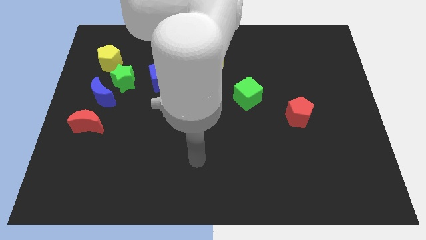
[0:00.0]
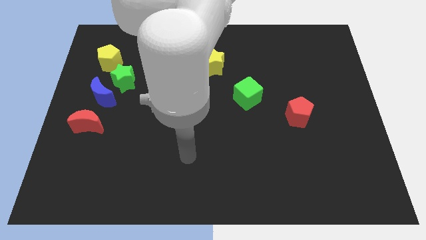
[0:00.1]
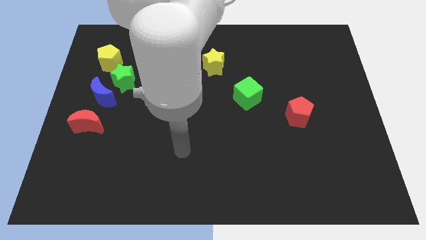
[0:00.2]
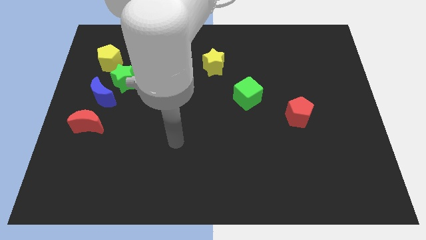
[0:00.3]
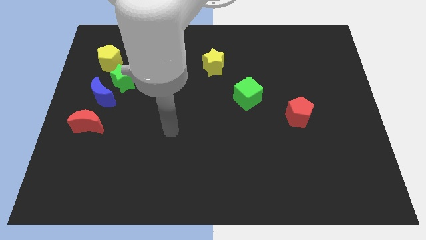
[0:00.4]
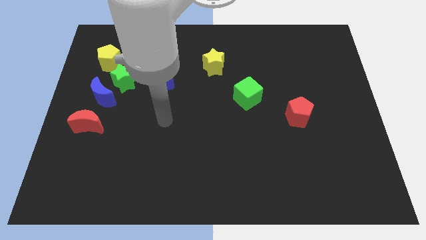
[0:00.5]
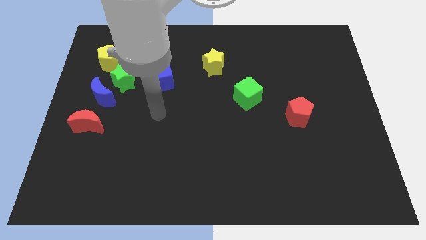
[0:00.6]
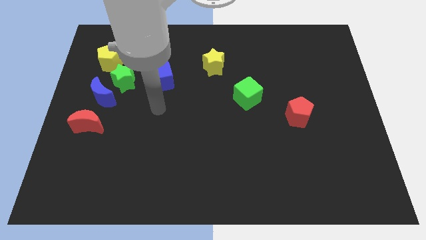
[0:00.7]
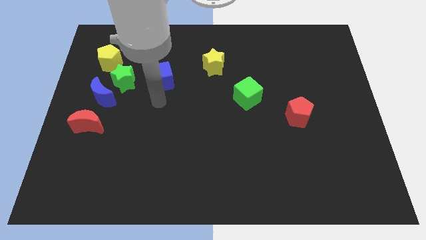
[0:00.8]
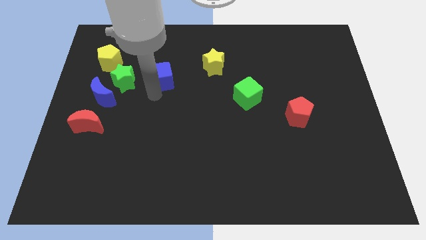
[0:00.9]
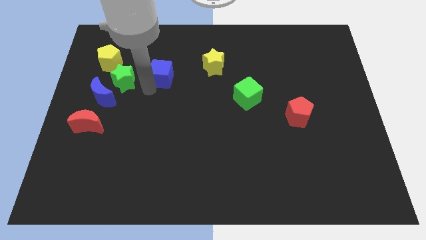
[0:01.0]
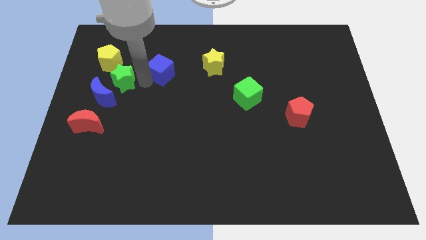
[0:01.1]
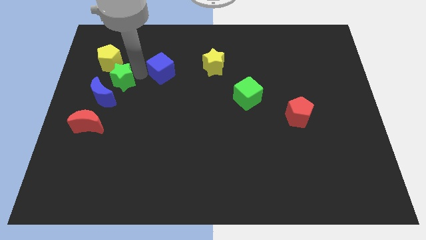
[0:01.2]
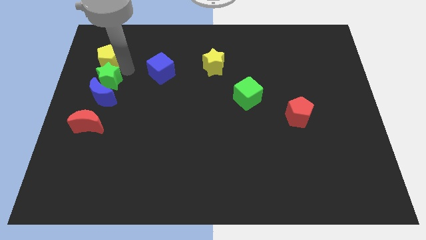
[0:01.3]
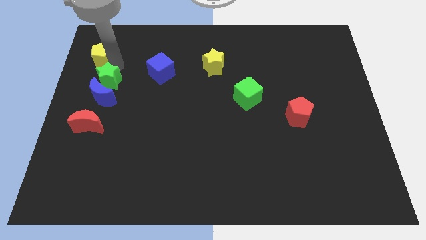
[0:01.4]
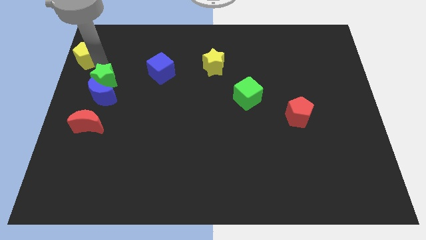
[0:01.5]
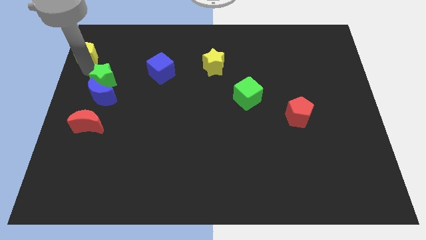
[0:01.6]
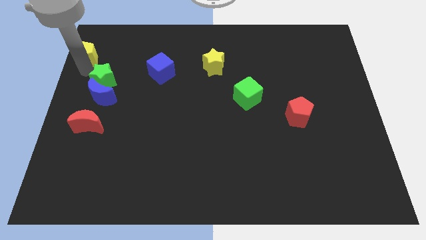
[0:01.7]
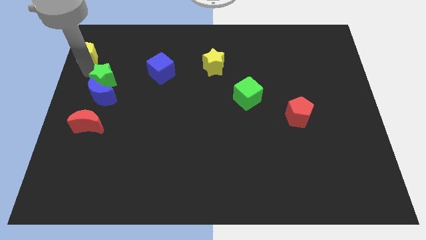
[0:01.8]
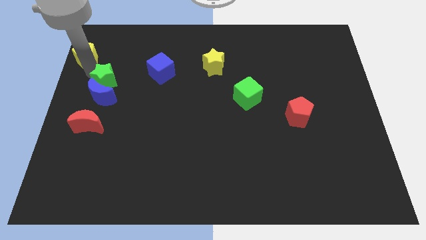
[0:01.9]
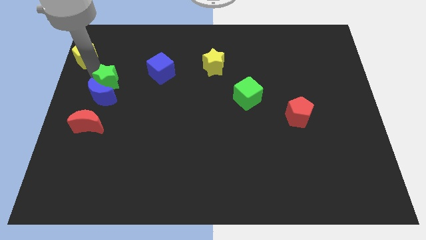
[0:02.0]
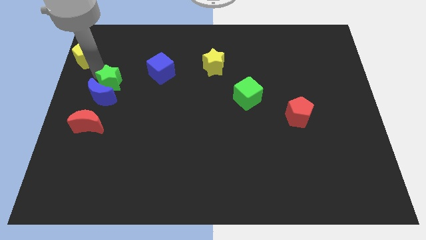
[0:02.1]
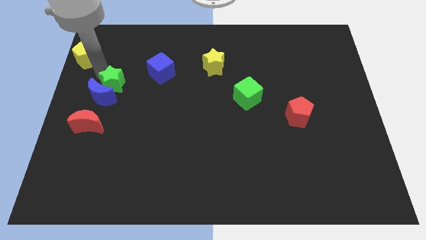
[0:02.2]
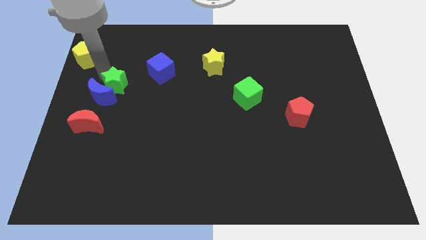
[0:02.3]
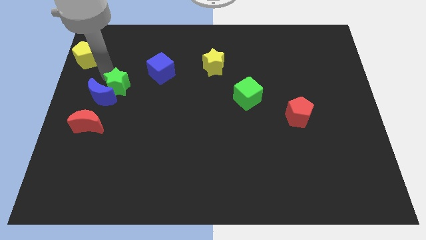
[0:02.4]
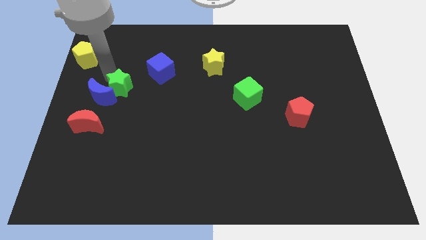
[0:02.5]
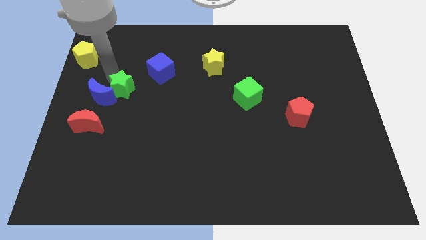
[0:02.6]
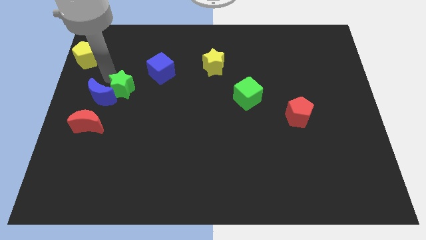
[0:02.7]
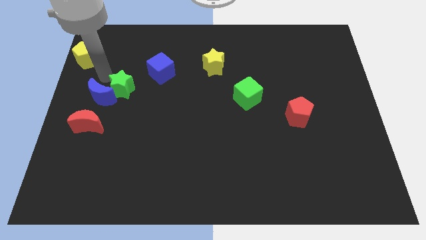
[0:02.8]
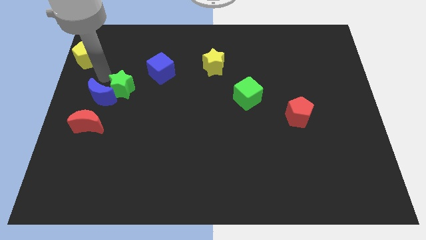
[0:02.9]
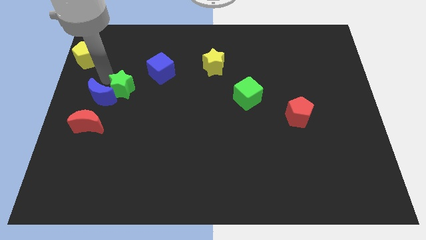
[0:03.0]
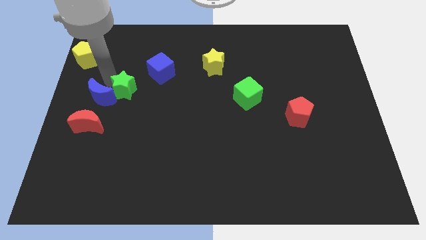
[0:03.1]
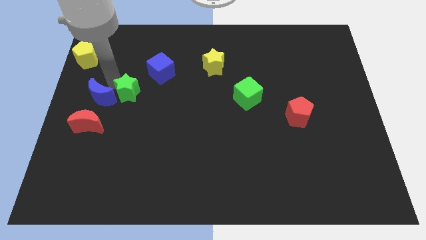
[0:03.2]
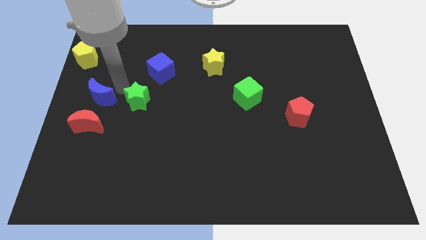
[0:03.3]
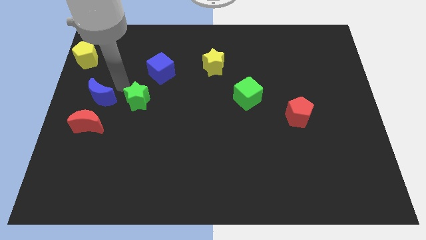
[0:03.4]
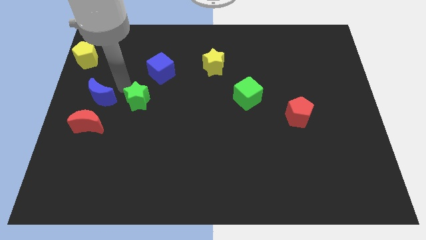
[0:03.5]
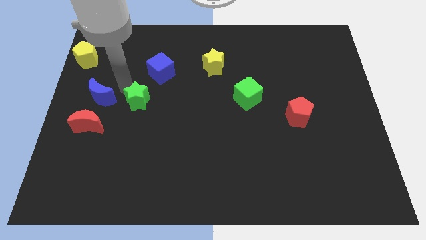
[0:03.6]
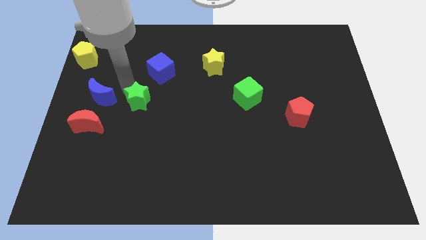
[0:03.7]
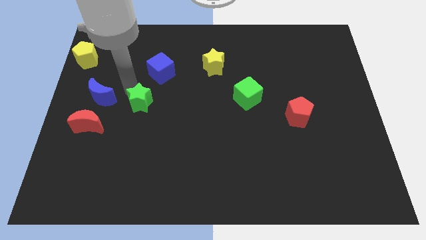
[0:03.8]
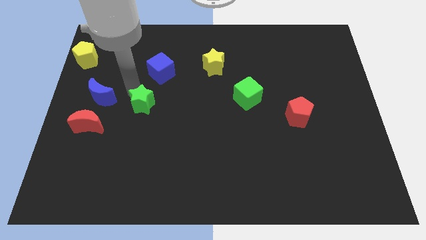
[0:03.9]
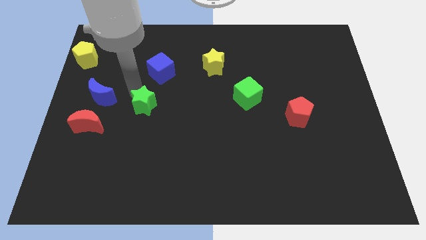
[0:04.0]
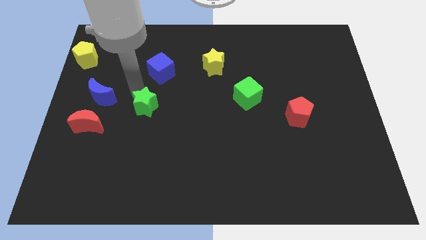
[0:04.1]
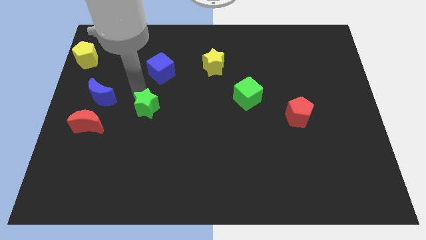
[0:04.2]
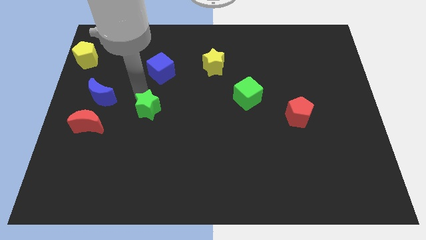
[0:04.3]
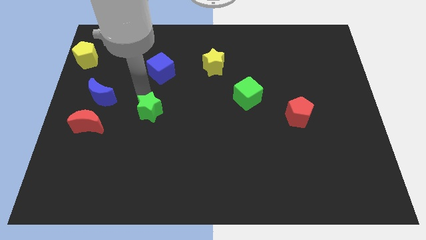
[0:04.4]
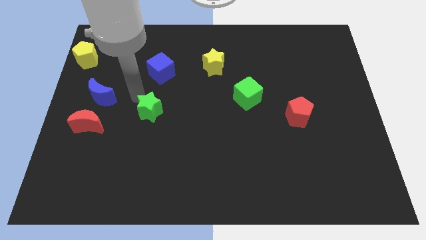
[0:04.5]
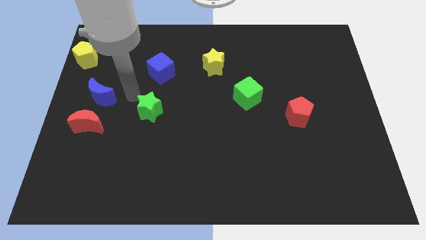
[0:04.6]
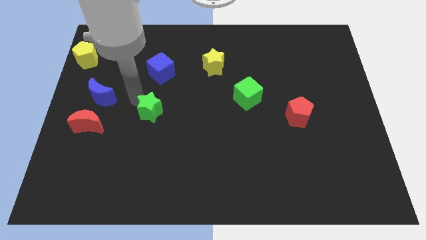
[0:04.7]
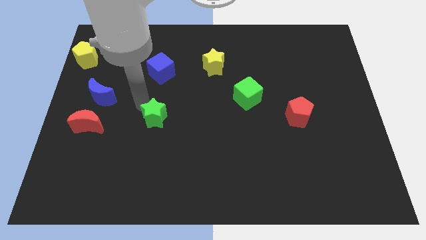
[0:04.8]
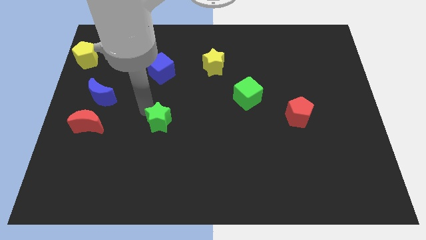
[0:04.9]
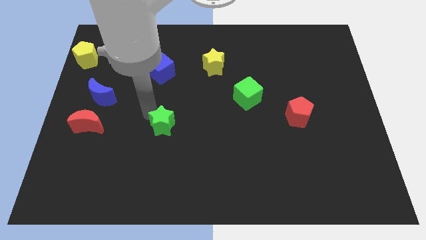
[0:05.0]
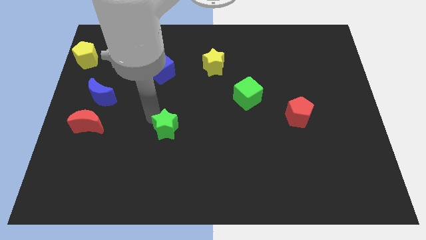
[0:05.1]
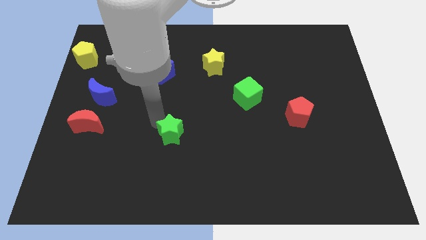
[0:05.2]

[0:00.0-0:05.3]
move the green star diagonally downwards and right

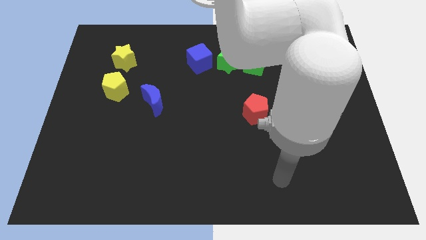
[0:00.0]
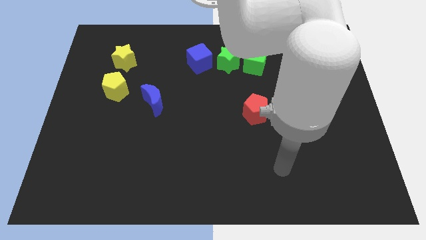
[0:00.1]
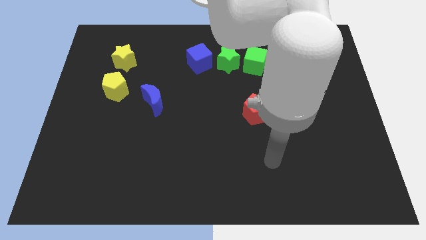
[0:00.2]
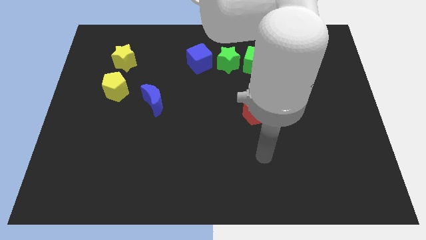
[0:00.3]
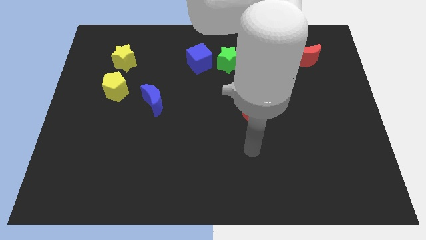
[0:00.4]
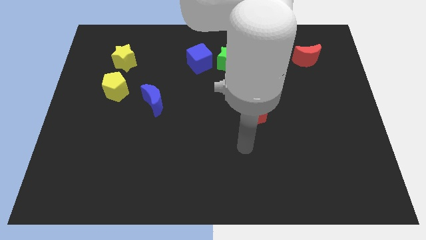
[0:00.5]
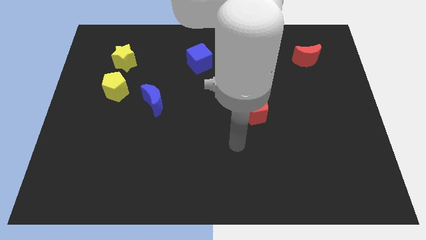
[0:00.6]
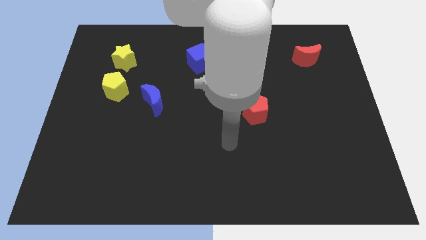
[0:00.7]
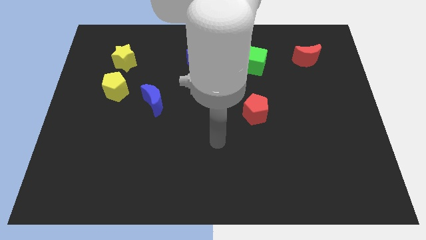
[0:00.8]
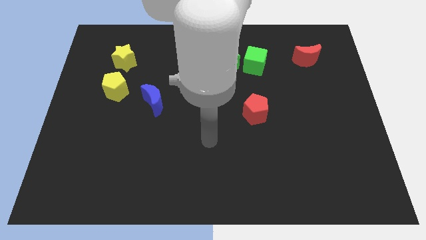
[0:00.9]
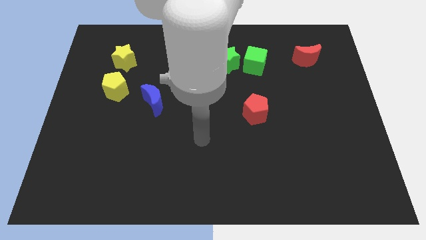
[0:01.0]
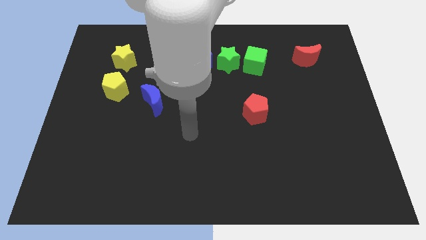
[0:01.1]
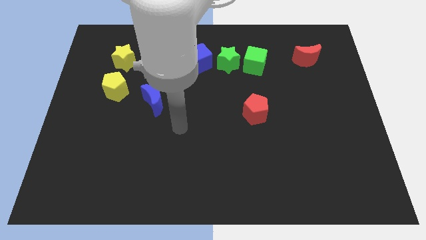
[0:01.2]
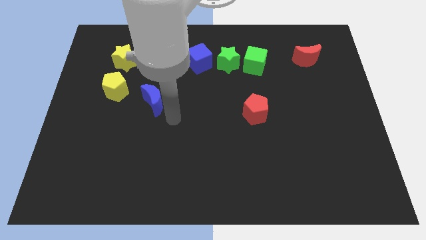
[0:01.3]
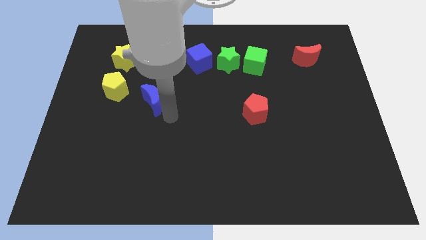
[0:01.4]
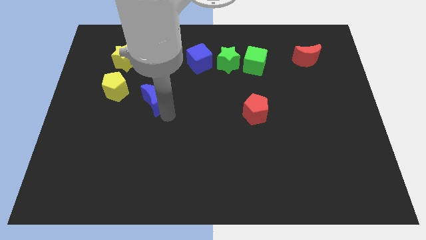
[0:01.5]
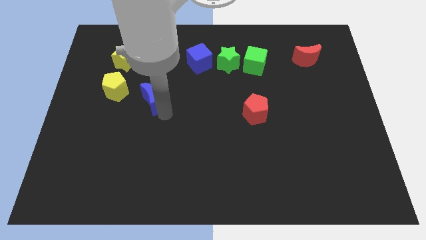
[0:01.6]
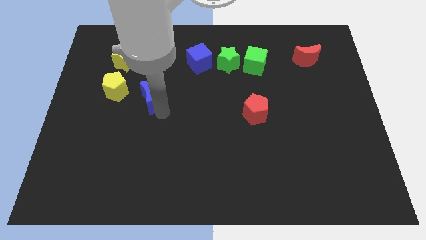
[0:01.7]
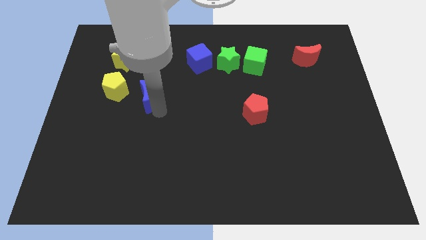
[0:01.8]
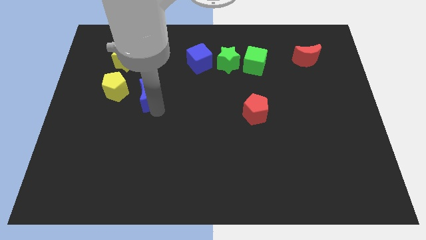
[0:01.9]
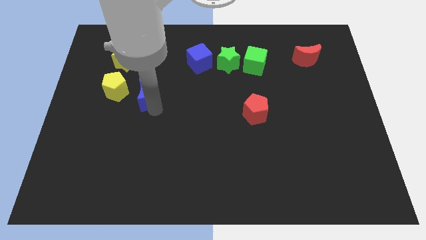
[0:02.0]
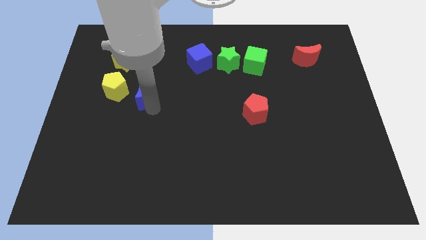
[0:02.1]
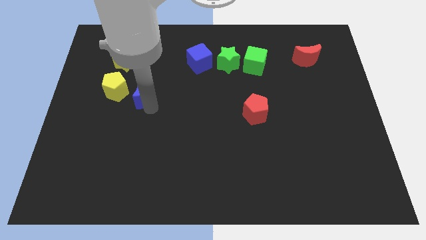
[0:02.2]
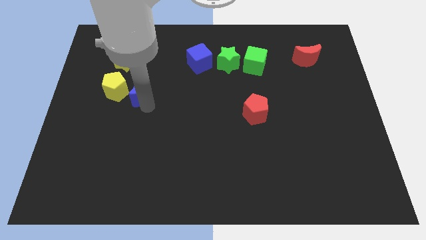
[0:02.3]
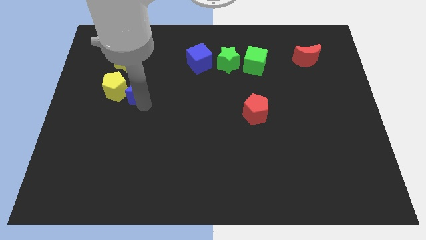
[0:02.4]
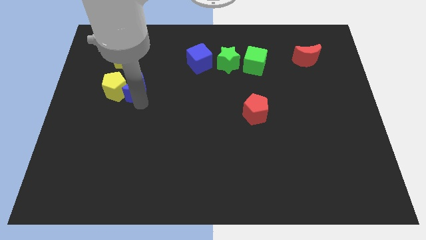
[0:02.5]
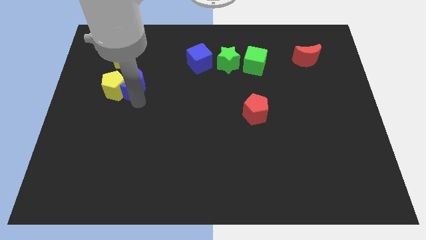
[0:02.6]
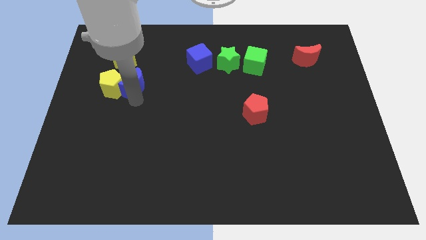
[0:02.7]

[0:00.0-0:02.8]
slightly slide the blue moon up and left
